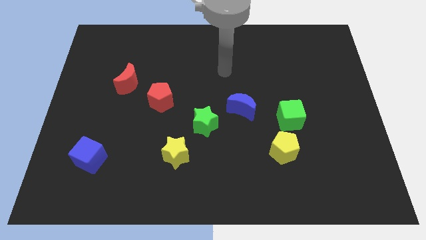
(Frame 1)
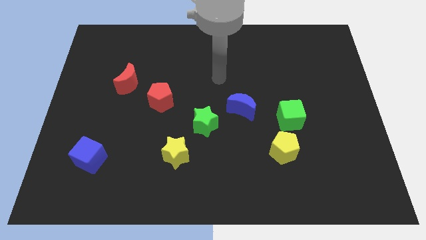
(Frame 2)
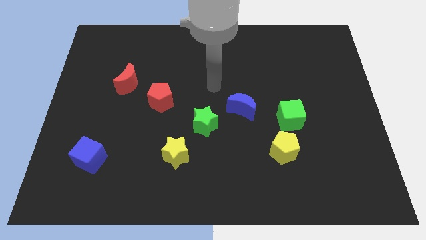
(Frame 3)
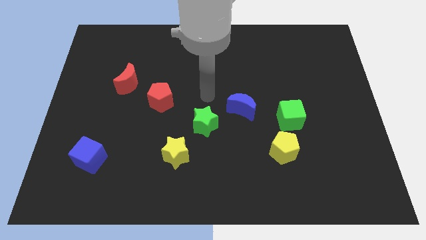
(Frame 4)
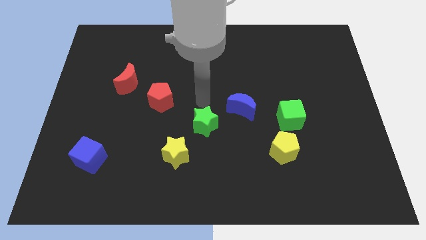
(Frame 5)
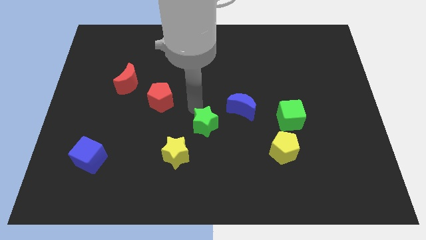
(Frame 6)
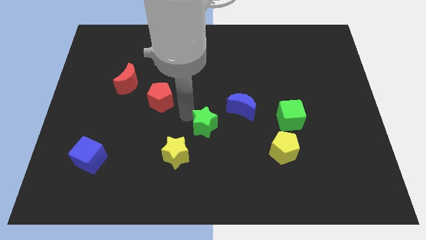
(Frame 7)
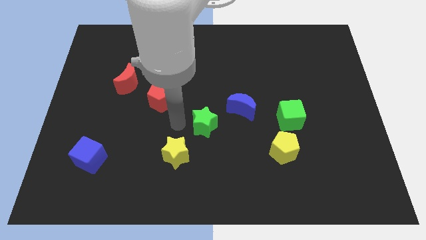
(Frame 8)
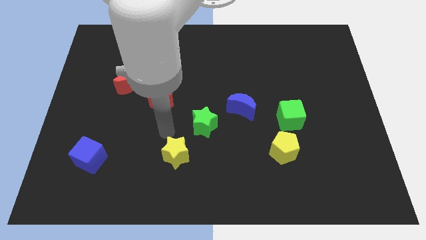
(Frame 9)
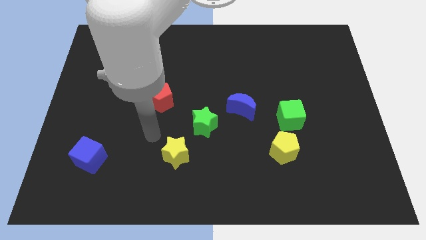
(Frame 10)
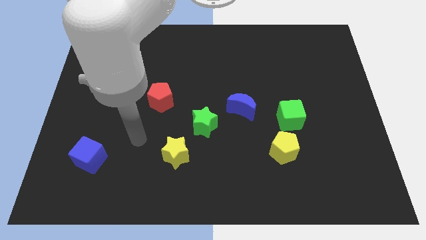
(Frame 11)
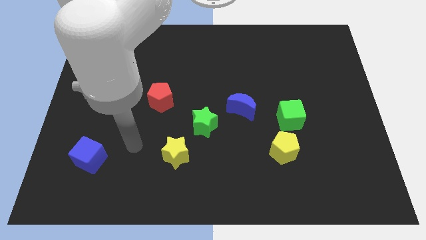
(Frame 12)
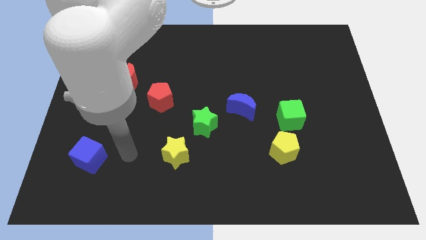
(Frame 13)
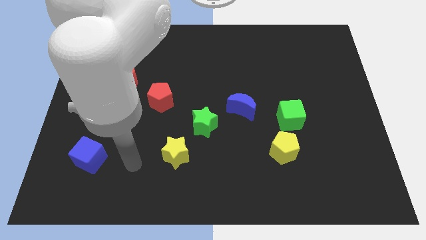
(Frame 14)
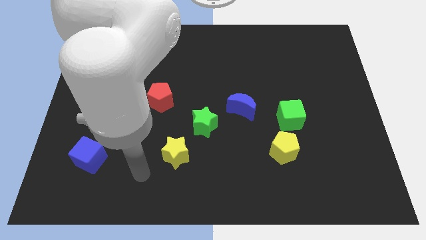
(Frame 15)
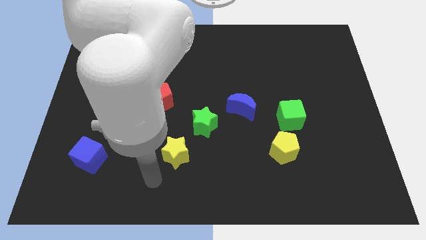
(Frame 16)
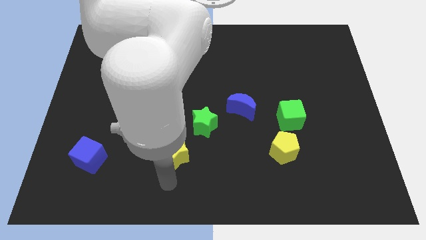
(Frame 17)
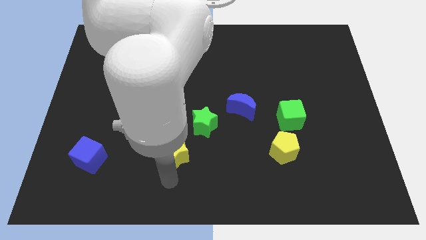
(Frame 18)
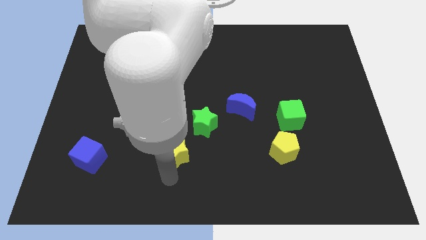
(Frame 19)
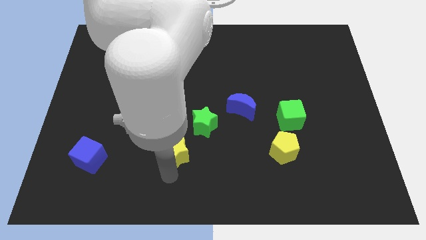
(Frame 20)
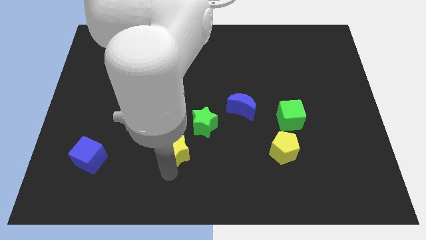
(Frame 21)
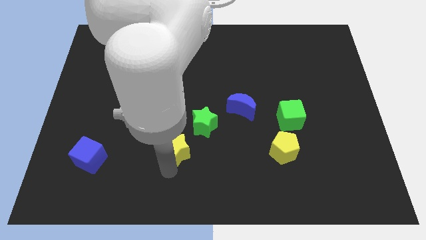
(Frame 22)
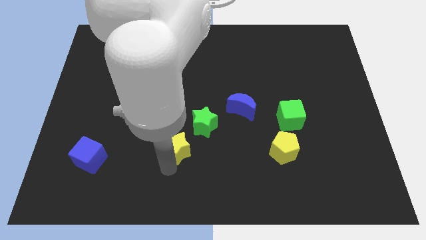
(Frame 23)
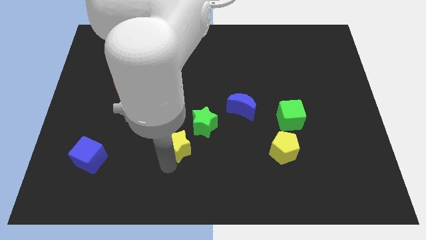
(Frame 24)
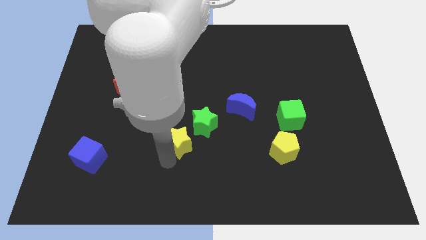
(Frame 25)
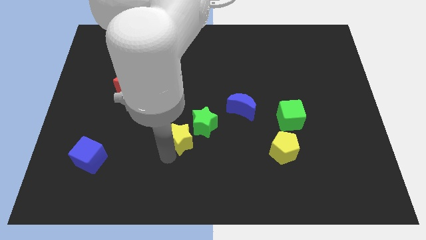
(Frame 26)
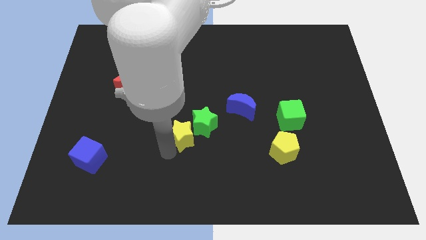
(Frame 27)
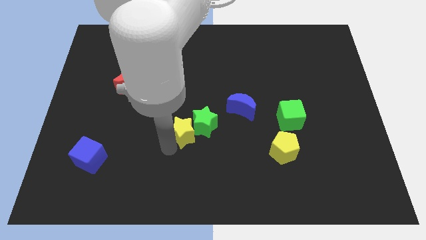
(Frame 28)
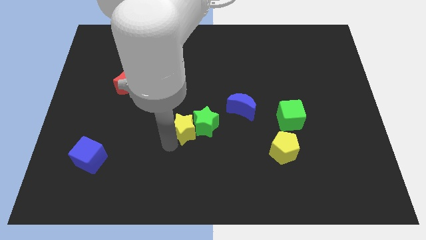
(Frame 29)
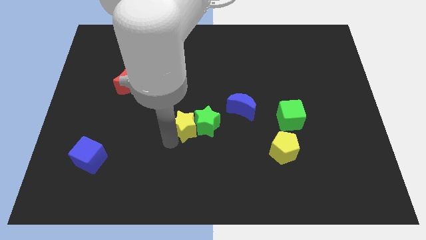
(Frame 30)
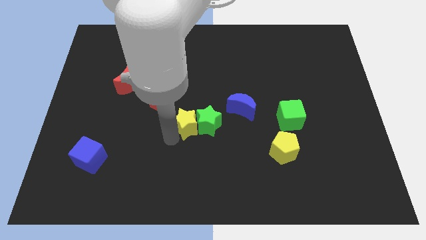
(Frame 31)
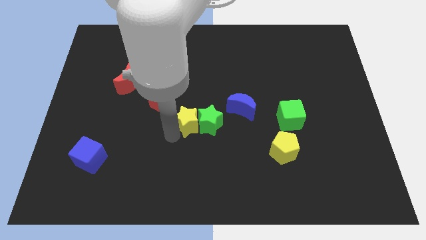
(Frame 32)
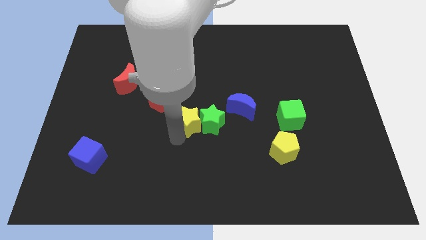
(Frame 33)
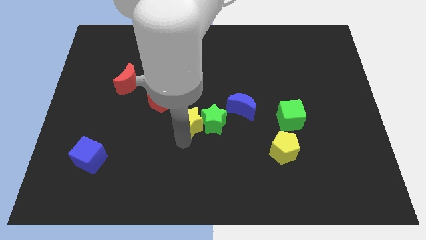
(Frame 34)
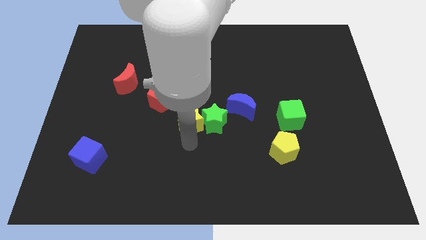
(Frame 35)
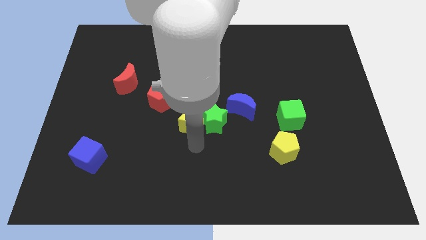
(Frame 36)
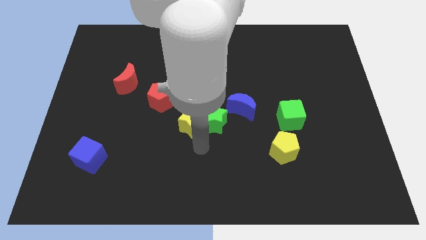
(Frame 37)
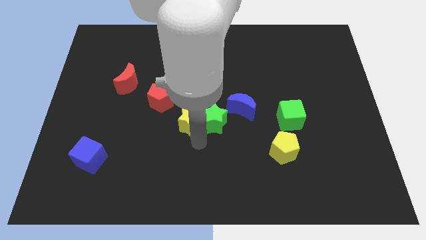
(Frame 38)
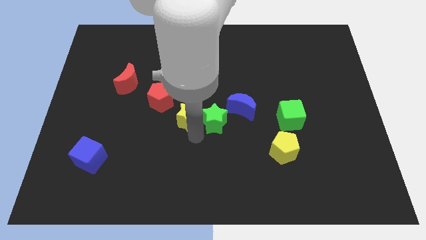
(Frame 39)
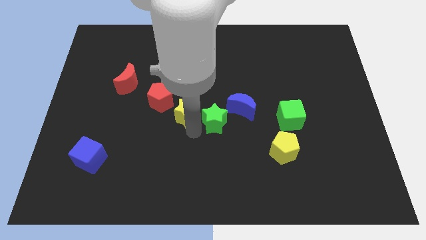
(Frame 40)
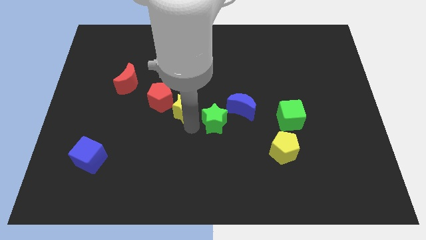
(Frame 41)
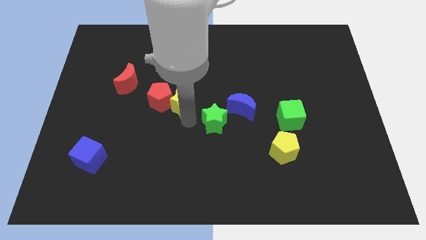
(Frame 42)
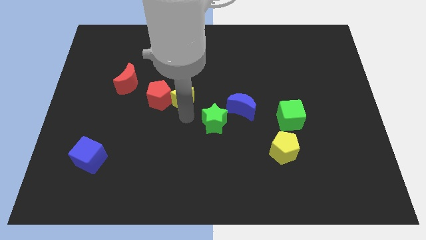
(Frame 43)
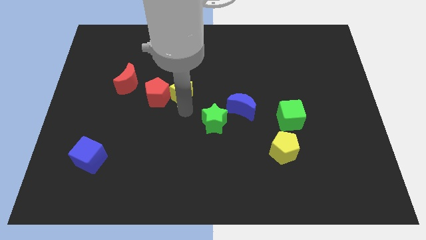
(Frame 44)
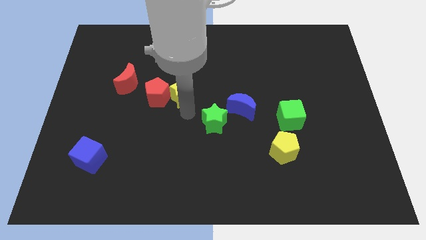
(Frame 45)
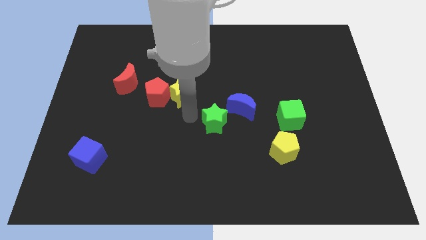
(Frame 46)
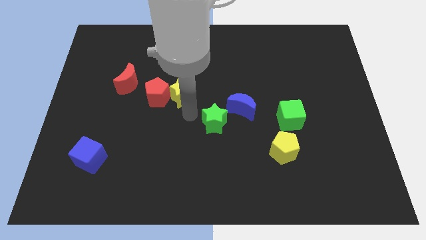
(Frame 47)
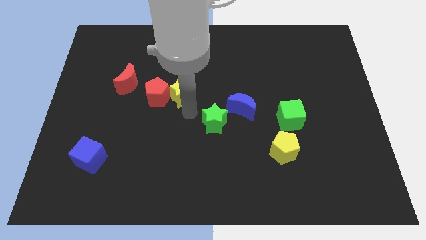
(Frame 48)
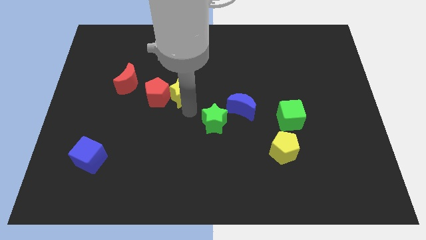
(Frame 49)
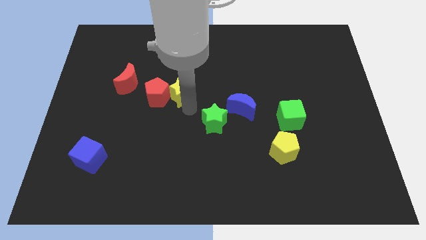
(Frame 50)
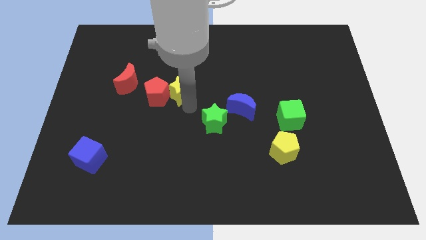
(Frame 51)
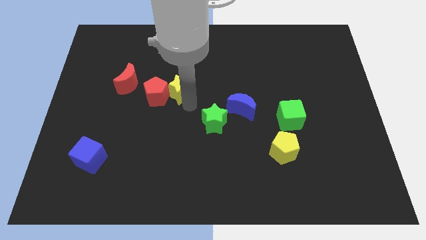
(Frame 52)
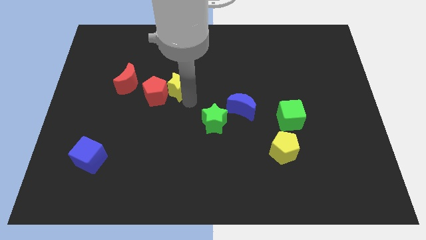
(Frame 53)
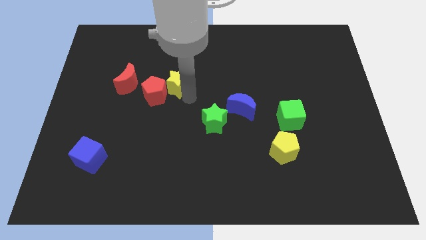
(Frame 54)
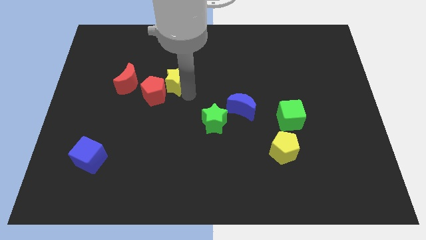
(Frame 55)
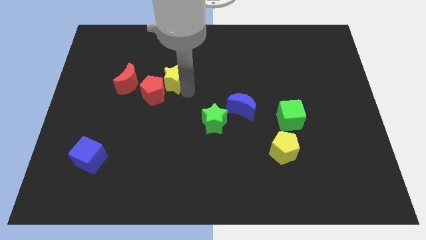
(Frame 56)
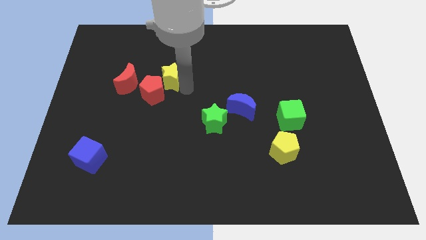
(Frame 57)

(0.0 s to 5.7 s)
put the yellow star above the red pentagon

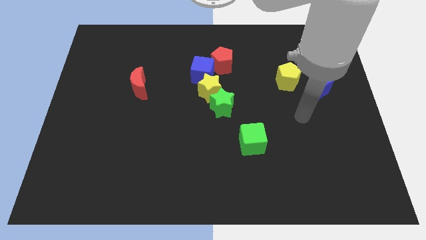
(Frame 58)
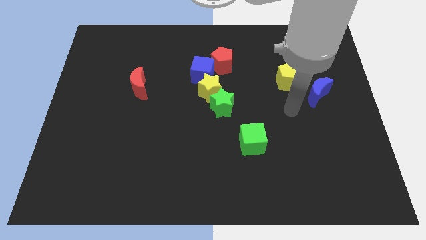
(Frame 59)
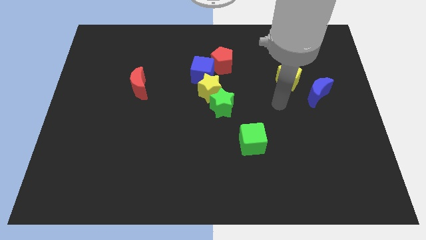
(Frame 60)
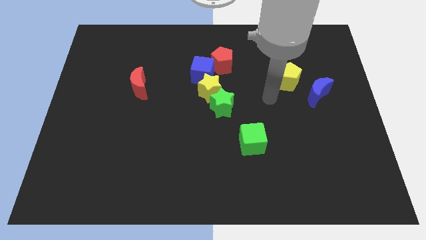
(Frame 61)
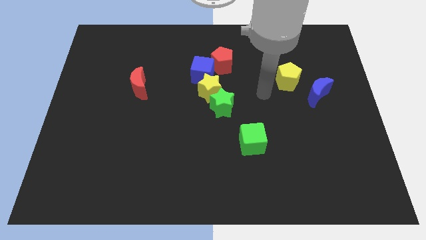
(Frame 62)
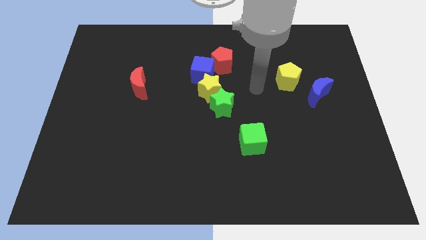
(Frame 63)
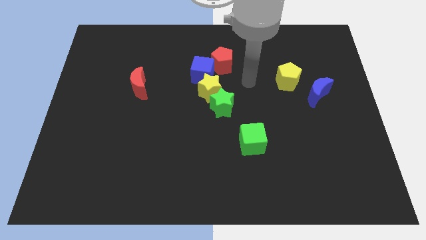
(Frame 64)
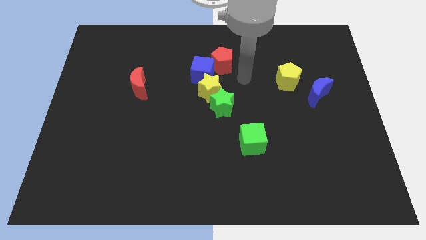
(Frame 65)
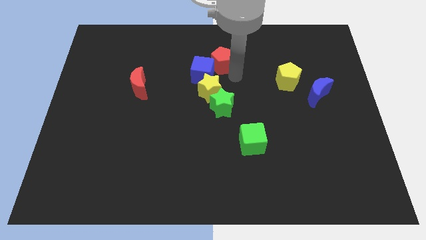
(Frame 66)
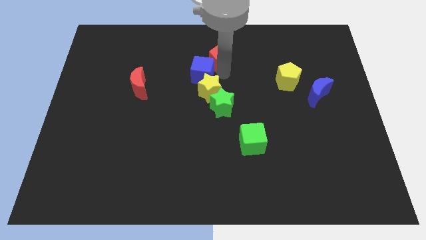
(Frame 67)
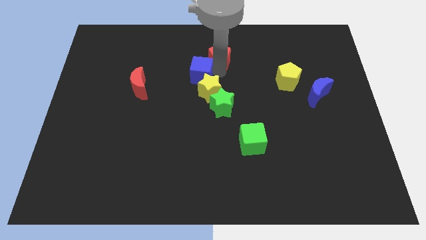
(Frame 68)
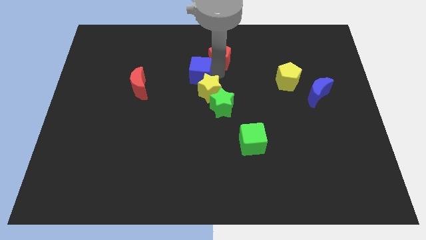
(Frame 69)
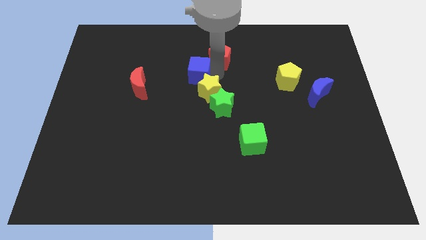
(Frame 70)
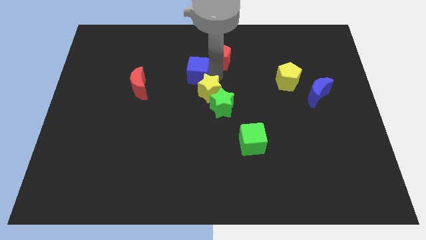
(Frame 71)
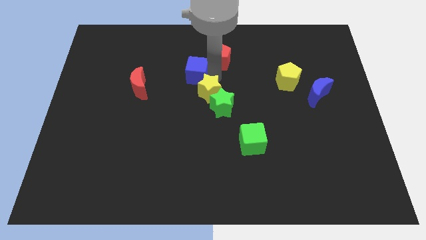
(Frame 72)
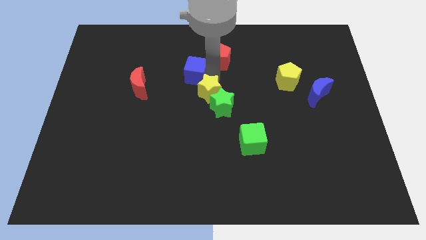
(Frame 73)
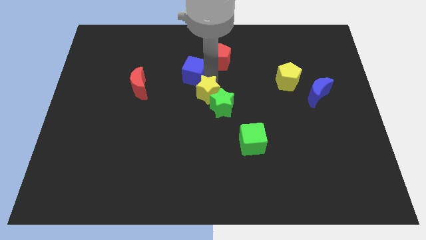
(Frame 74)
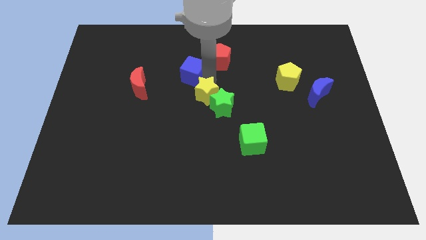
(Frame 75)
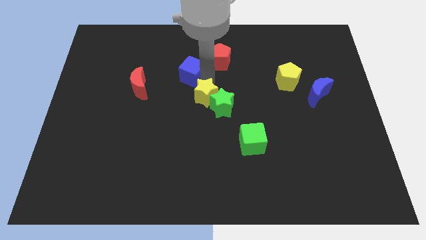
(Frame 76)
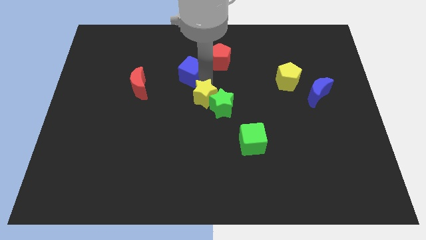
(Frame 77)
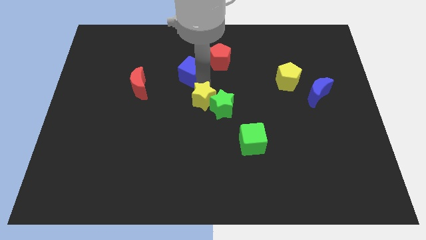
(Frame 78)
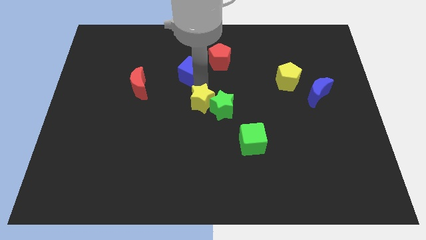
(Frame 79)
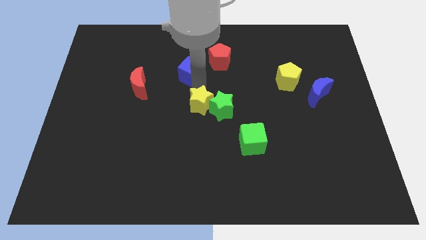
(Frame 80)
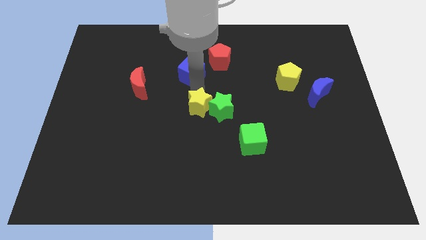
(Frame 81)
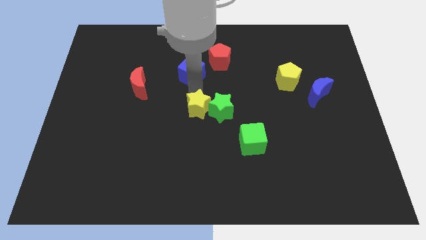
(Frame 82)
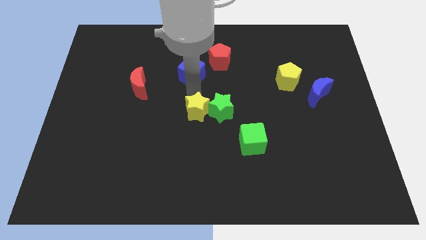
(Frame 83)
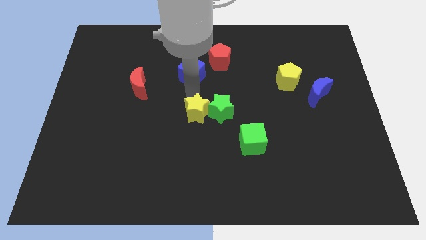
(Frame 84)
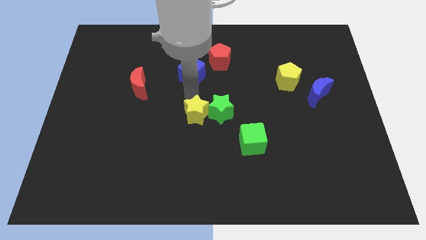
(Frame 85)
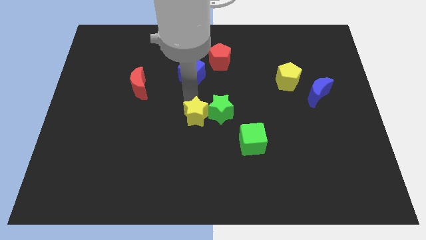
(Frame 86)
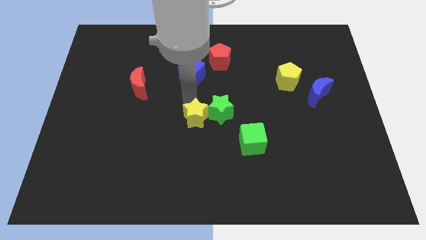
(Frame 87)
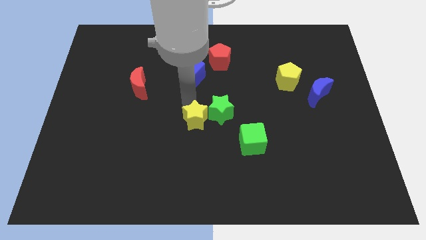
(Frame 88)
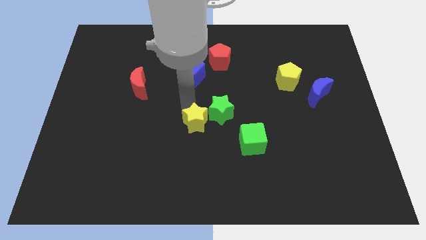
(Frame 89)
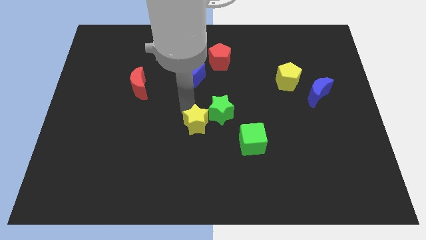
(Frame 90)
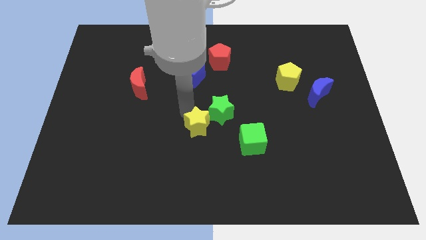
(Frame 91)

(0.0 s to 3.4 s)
put the yellow star left of the green cube
